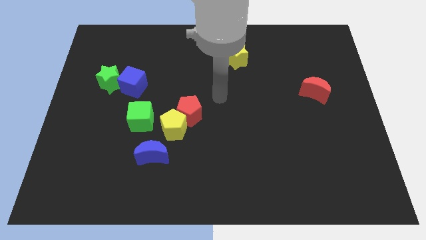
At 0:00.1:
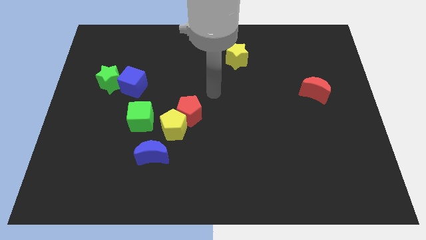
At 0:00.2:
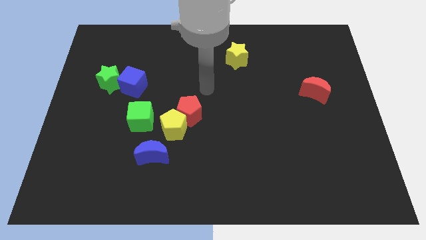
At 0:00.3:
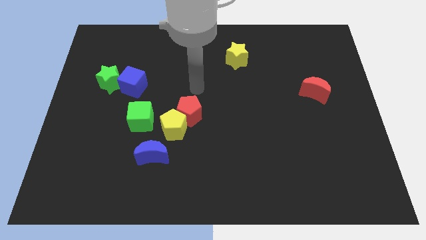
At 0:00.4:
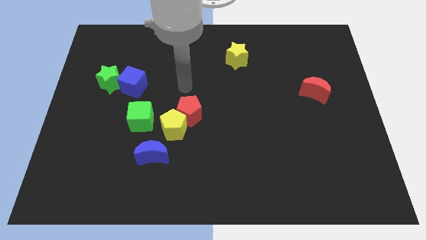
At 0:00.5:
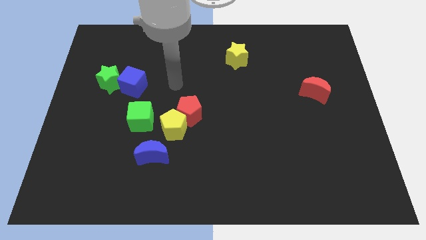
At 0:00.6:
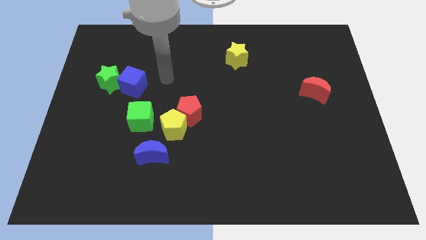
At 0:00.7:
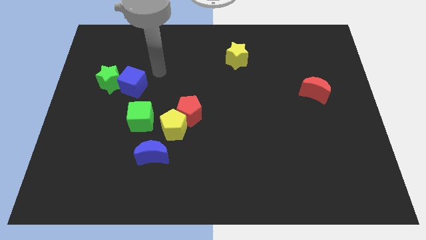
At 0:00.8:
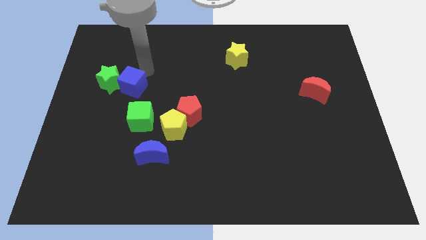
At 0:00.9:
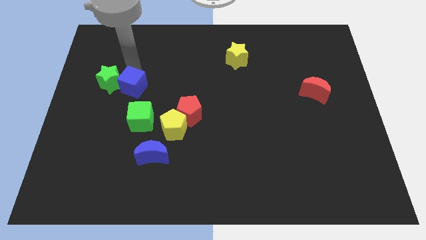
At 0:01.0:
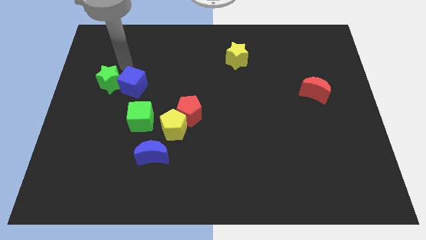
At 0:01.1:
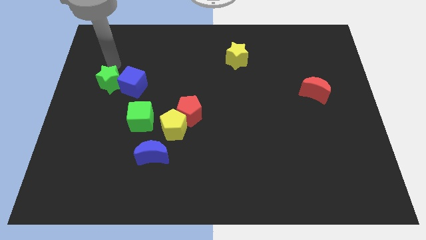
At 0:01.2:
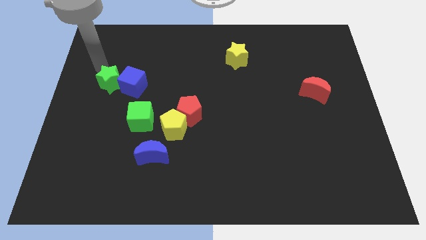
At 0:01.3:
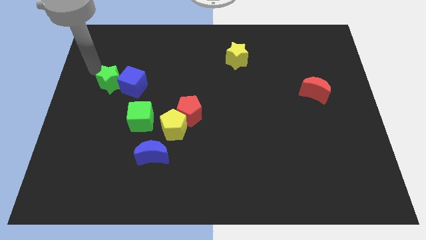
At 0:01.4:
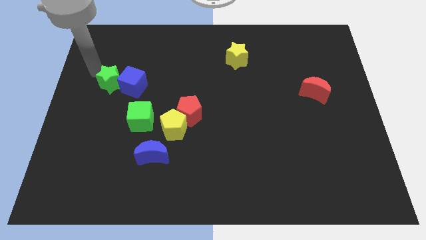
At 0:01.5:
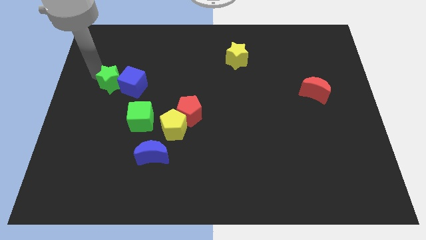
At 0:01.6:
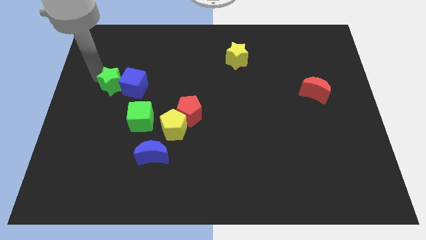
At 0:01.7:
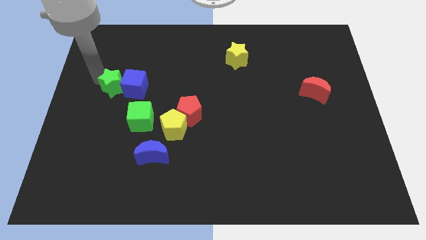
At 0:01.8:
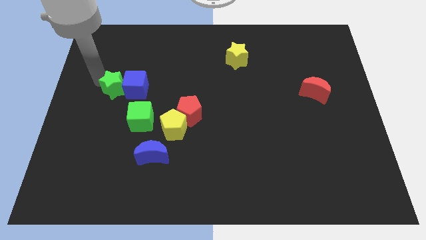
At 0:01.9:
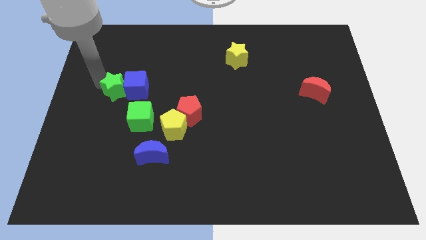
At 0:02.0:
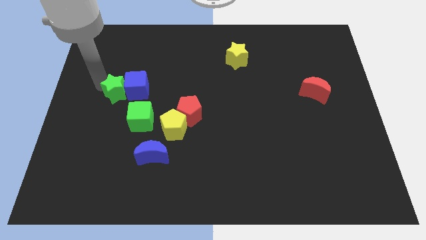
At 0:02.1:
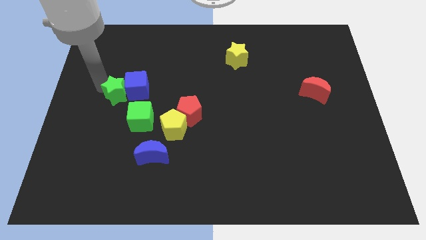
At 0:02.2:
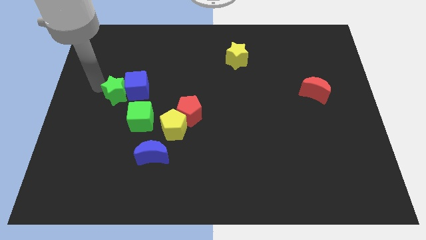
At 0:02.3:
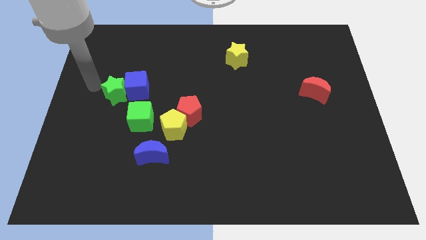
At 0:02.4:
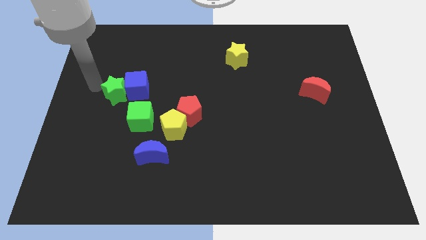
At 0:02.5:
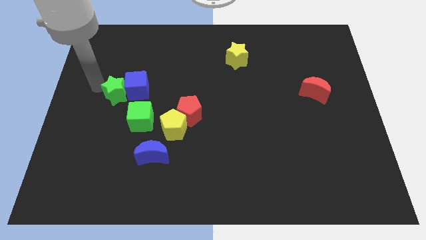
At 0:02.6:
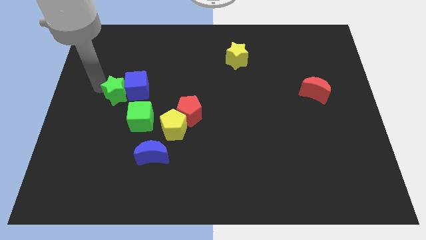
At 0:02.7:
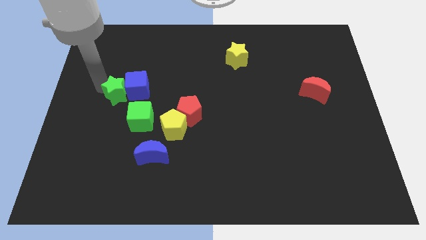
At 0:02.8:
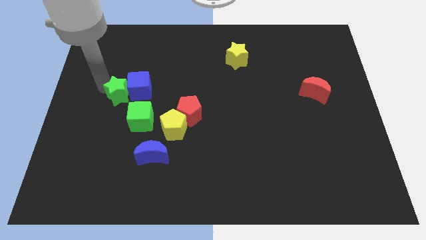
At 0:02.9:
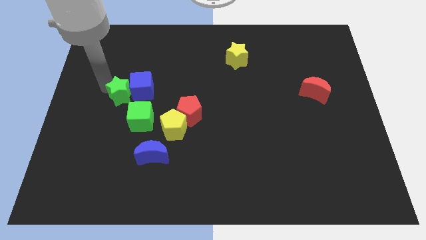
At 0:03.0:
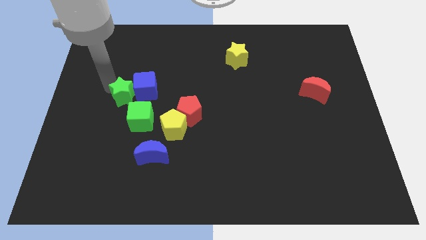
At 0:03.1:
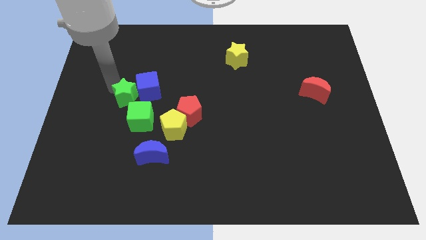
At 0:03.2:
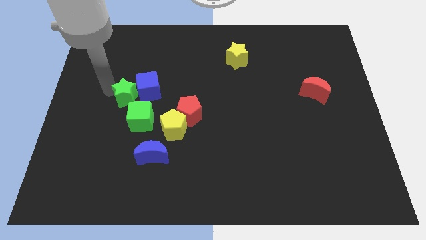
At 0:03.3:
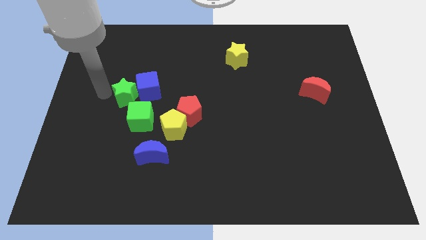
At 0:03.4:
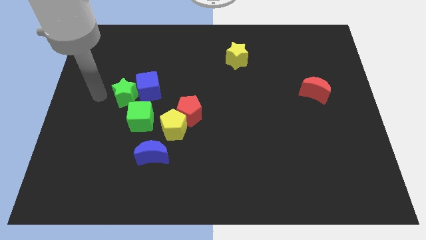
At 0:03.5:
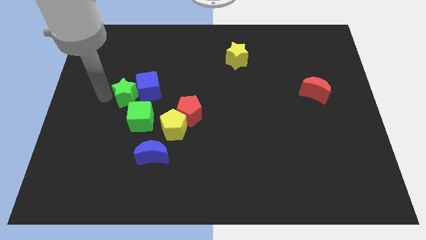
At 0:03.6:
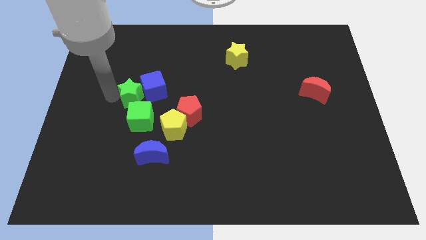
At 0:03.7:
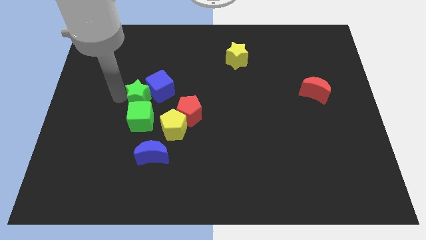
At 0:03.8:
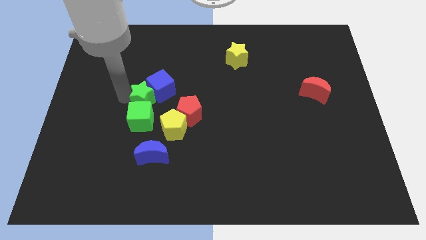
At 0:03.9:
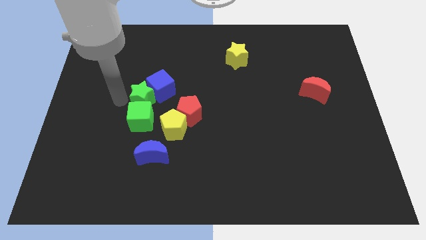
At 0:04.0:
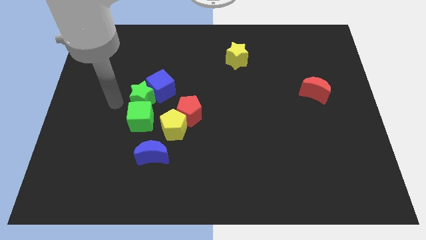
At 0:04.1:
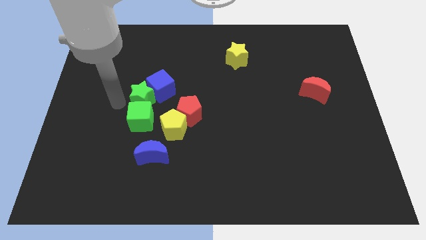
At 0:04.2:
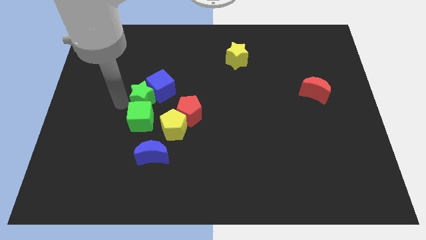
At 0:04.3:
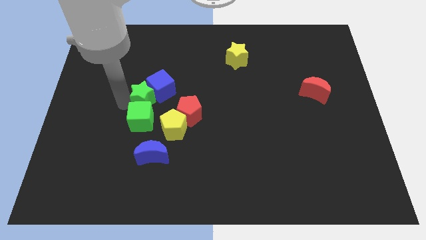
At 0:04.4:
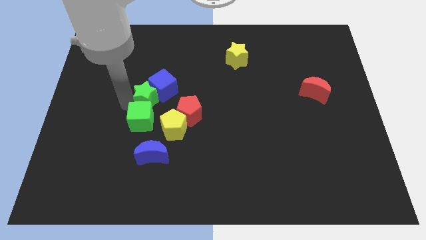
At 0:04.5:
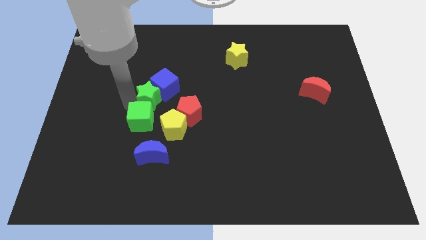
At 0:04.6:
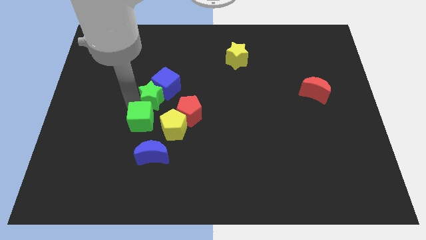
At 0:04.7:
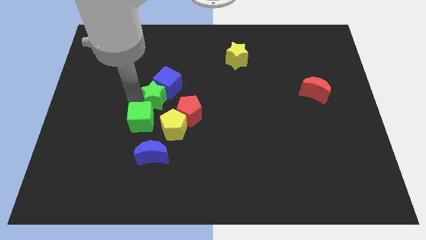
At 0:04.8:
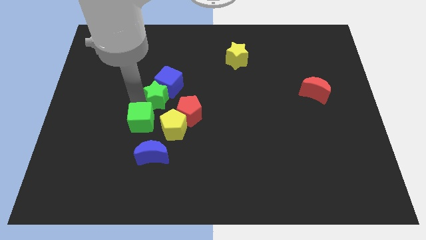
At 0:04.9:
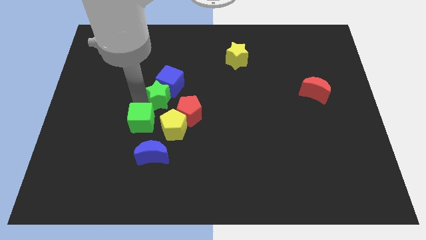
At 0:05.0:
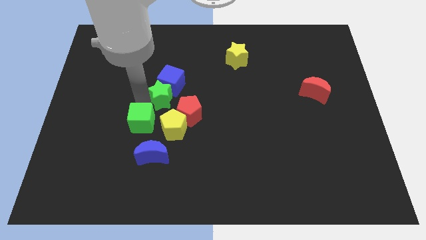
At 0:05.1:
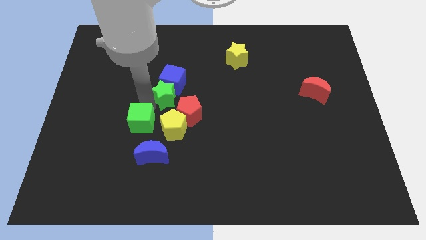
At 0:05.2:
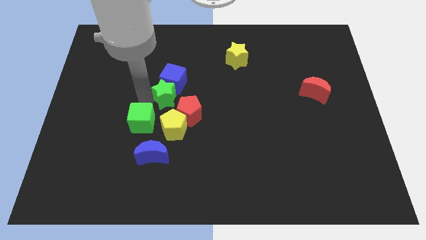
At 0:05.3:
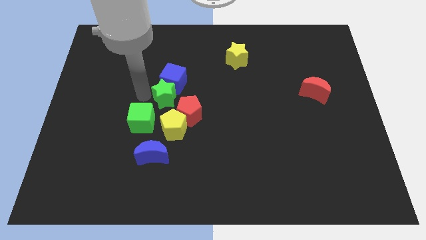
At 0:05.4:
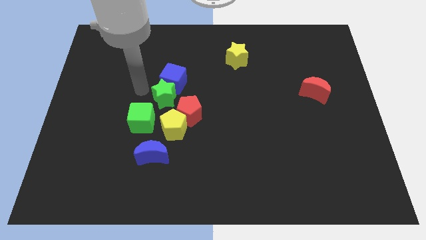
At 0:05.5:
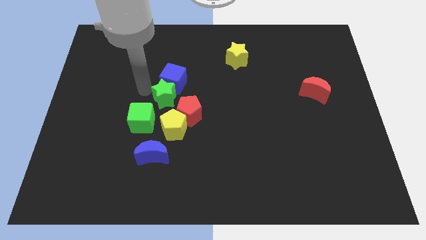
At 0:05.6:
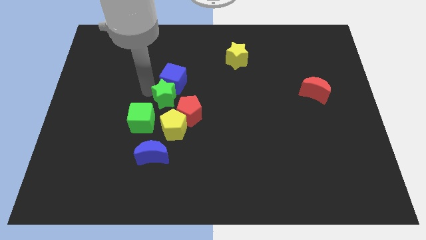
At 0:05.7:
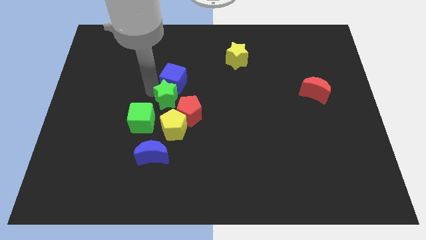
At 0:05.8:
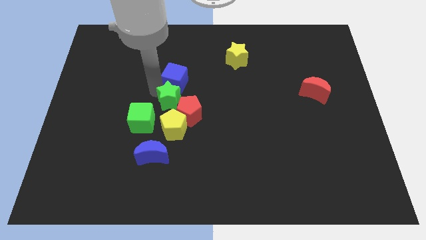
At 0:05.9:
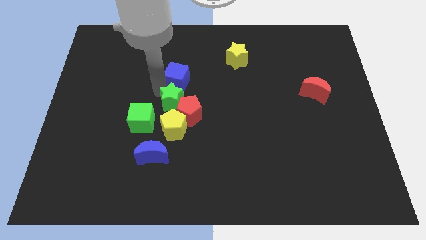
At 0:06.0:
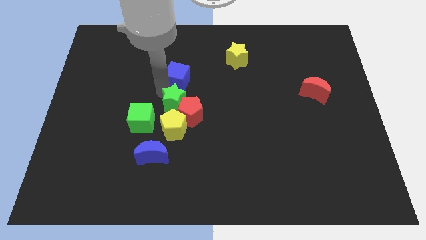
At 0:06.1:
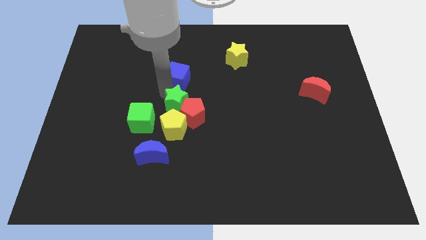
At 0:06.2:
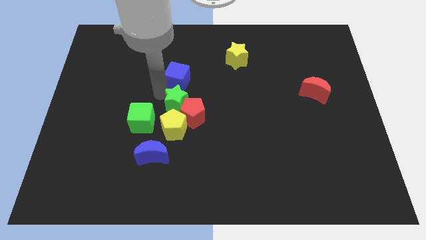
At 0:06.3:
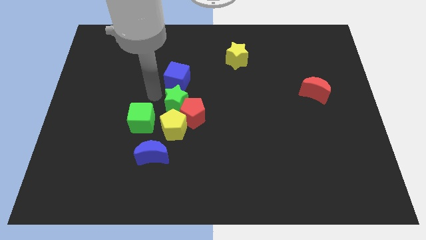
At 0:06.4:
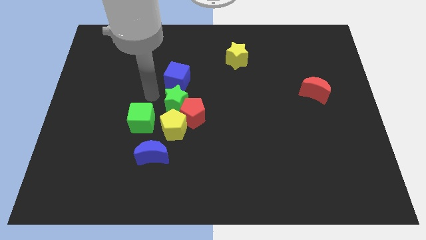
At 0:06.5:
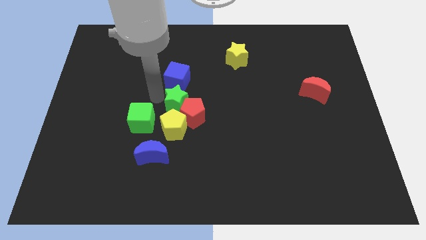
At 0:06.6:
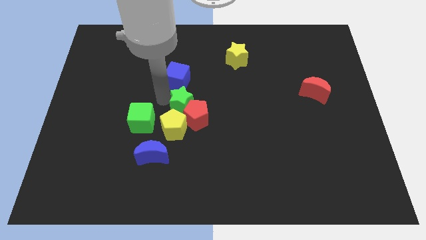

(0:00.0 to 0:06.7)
put the green star to the top right side of the yellow pentagon

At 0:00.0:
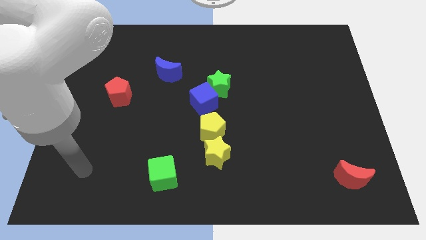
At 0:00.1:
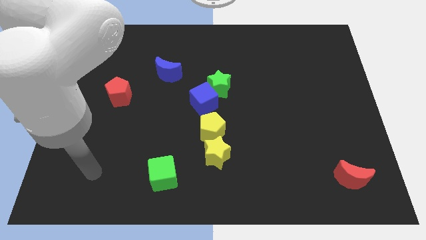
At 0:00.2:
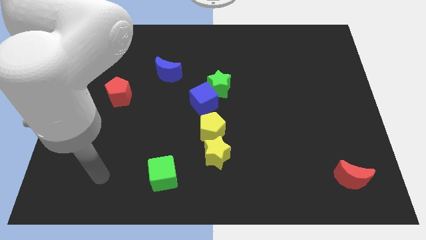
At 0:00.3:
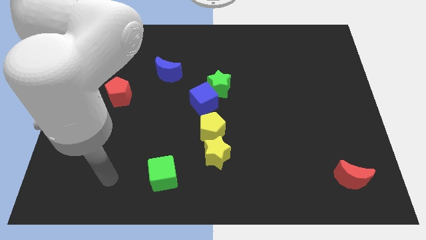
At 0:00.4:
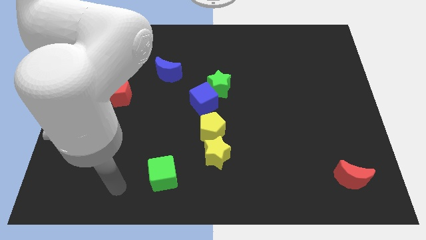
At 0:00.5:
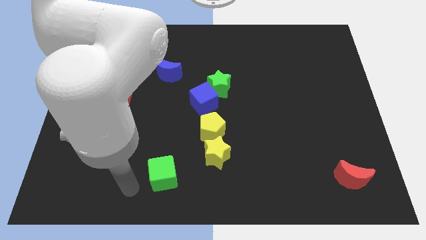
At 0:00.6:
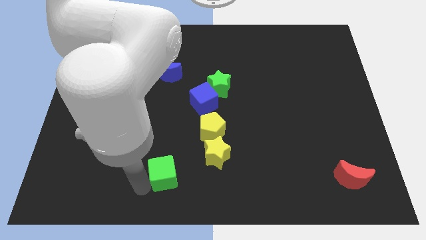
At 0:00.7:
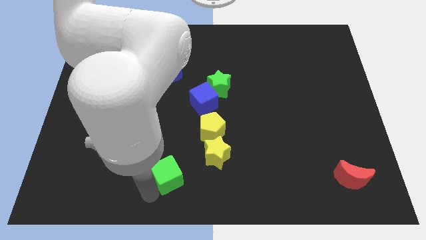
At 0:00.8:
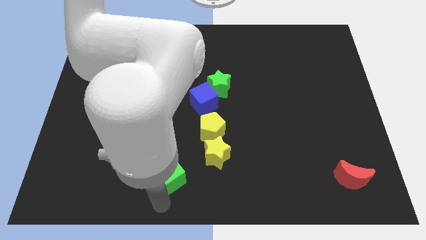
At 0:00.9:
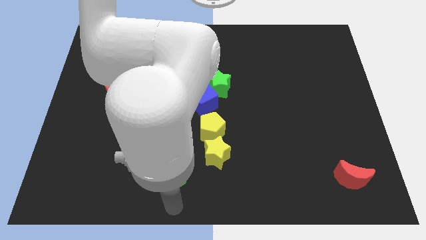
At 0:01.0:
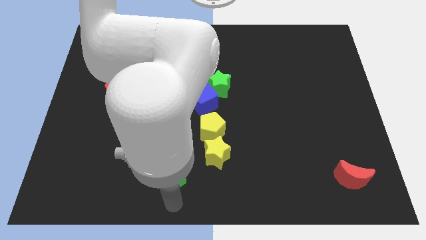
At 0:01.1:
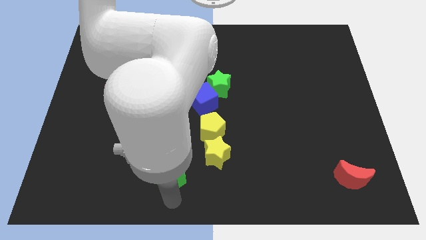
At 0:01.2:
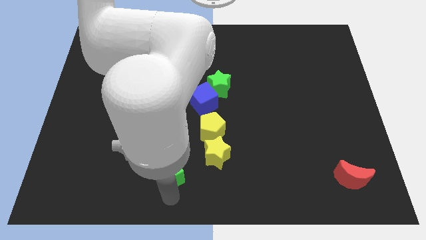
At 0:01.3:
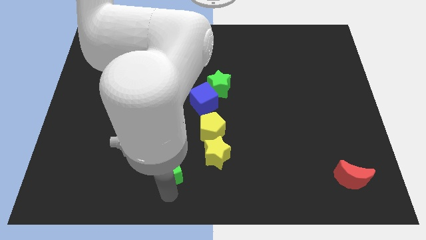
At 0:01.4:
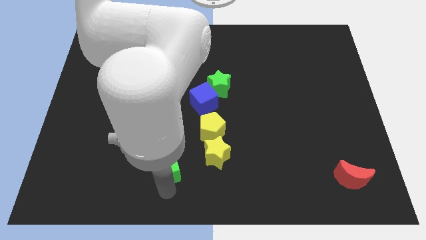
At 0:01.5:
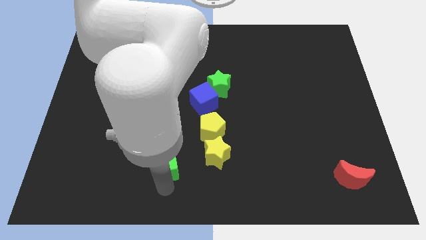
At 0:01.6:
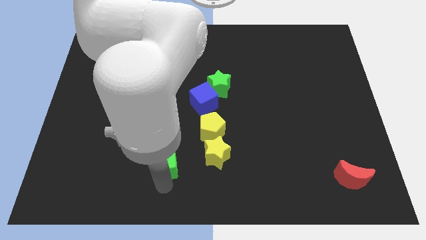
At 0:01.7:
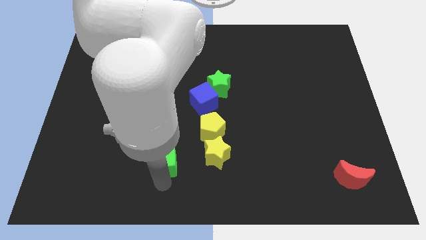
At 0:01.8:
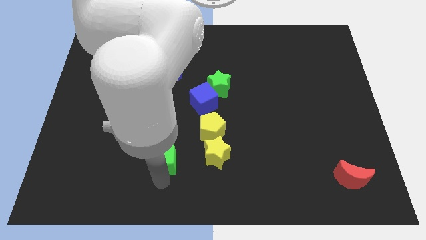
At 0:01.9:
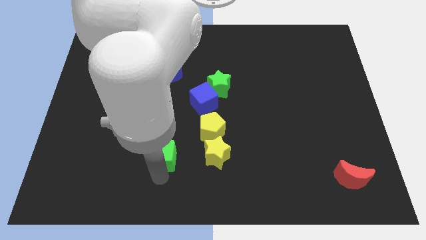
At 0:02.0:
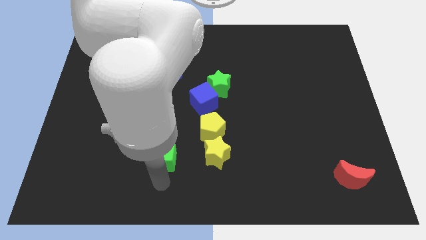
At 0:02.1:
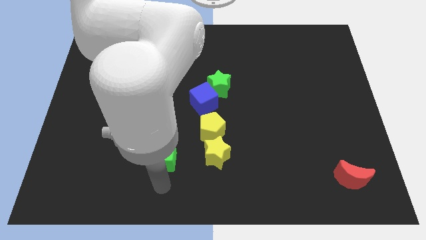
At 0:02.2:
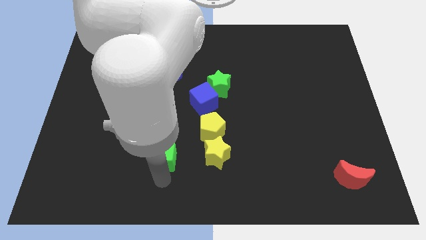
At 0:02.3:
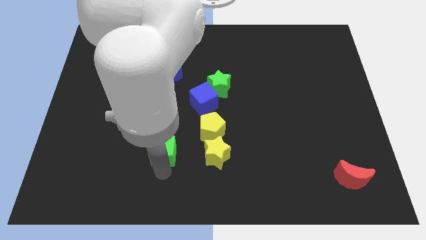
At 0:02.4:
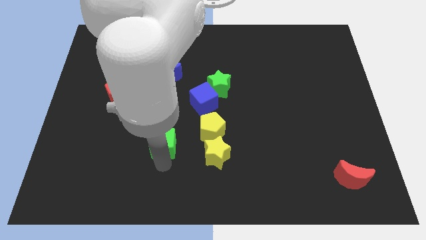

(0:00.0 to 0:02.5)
move the green cube just left of the yellow pentagon
